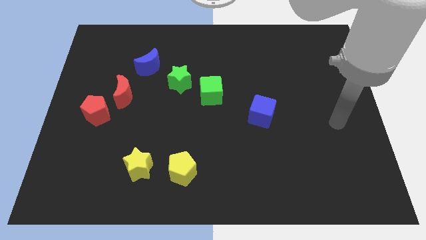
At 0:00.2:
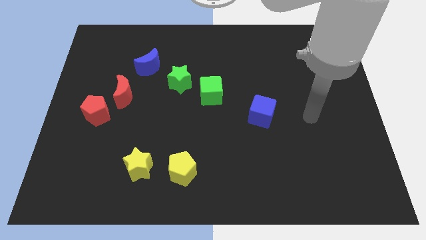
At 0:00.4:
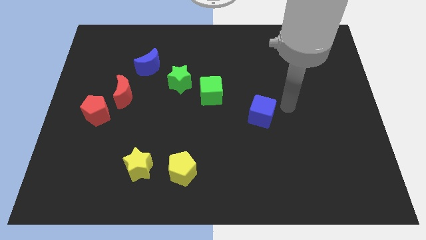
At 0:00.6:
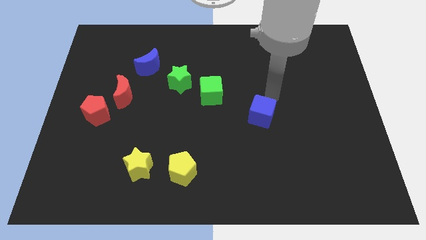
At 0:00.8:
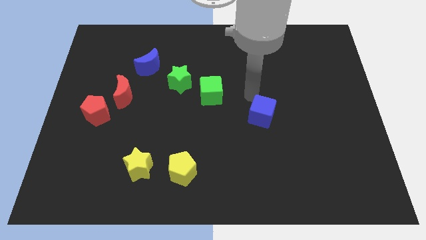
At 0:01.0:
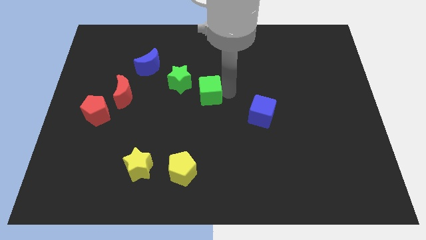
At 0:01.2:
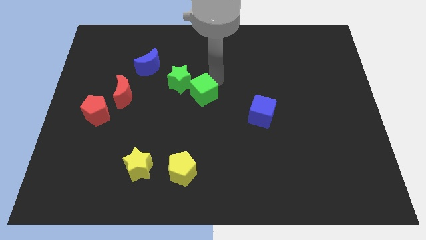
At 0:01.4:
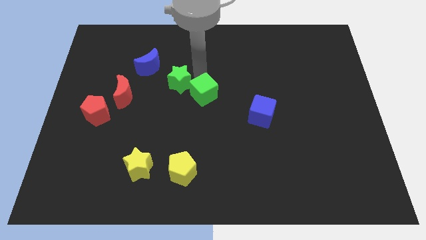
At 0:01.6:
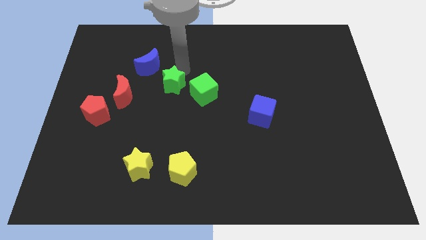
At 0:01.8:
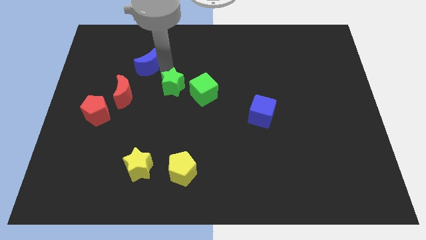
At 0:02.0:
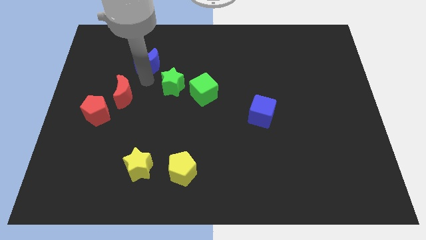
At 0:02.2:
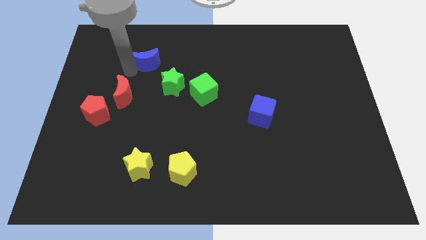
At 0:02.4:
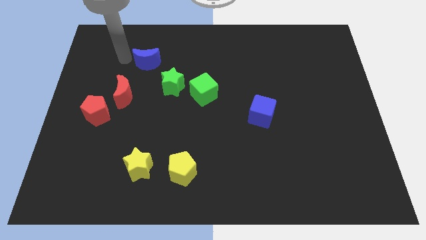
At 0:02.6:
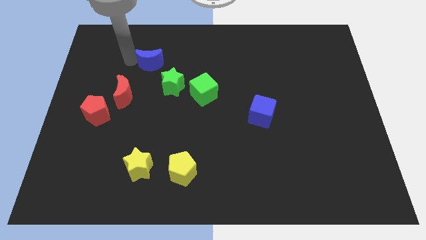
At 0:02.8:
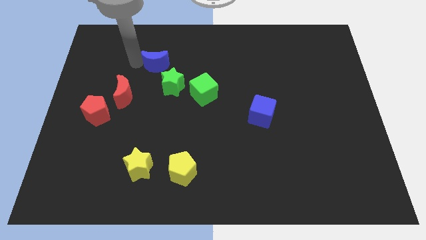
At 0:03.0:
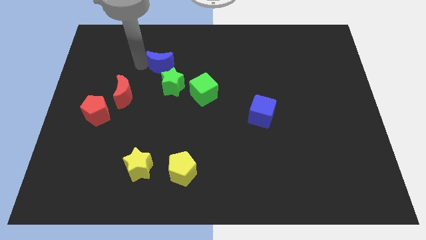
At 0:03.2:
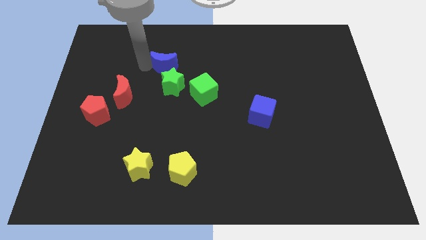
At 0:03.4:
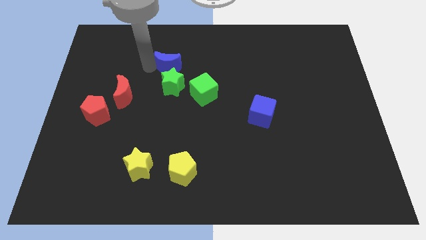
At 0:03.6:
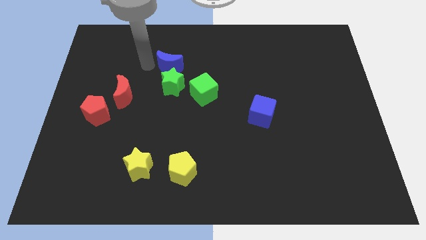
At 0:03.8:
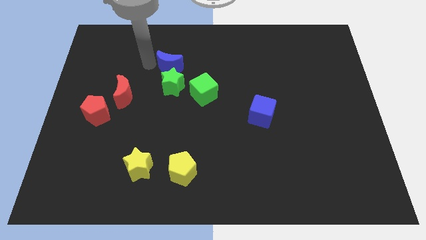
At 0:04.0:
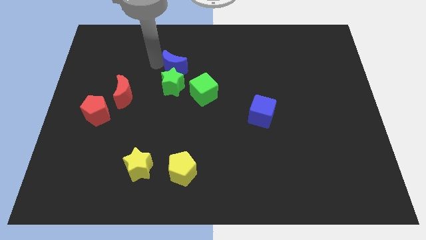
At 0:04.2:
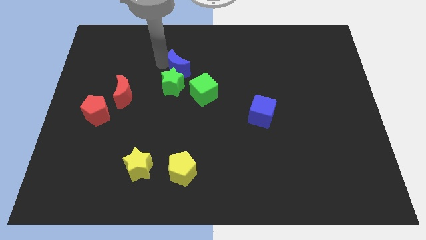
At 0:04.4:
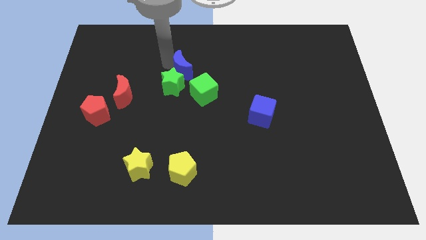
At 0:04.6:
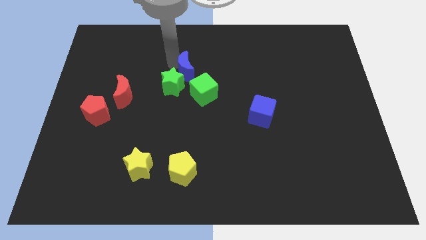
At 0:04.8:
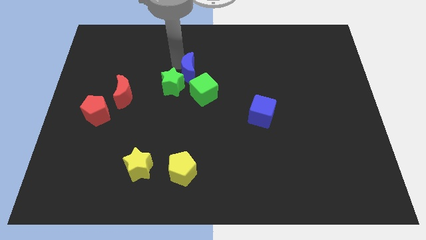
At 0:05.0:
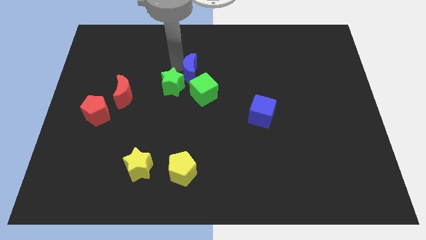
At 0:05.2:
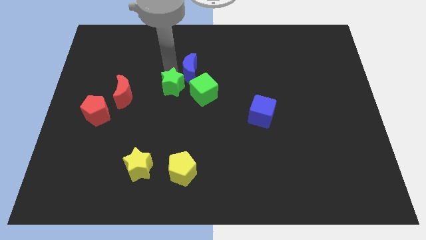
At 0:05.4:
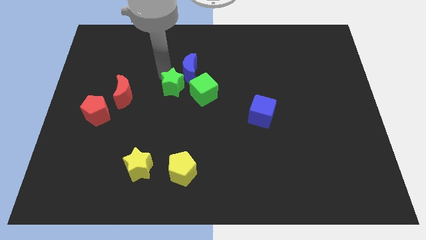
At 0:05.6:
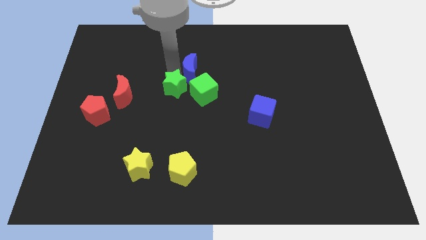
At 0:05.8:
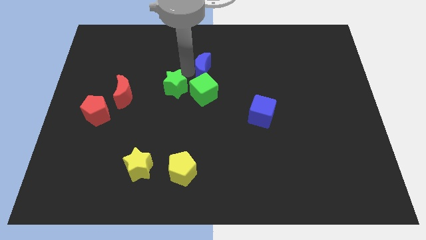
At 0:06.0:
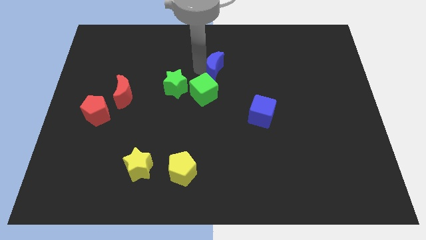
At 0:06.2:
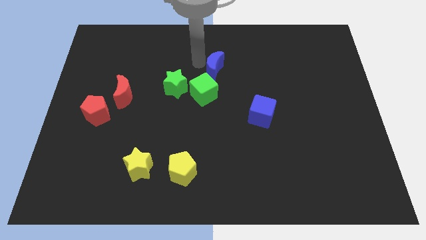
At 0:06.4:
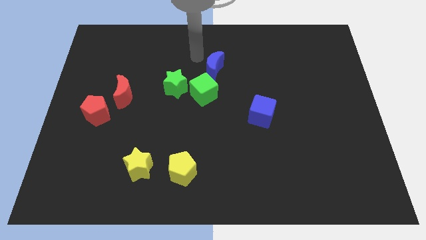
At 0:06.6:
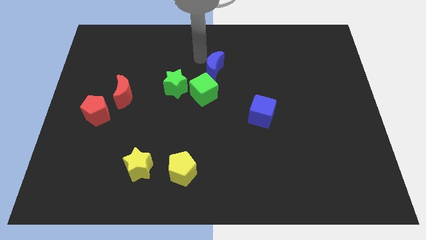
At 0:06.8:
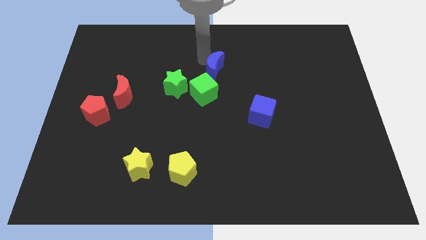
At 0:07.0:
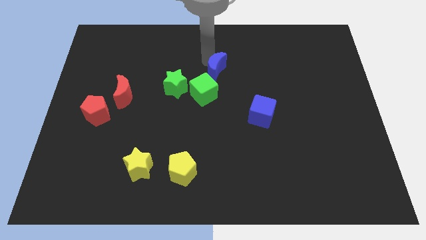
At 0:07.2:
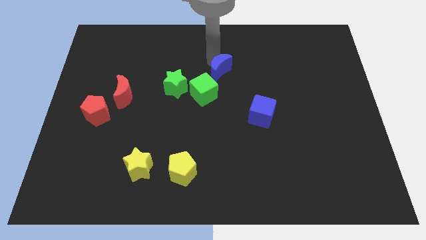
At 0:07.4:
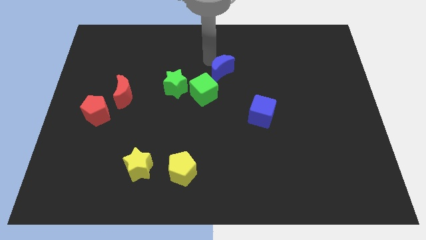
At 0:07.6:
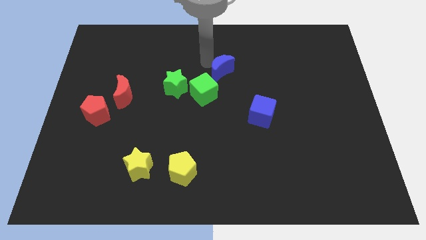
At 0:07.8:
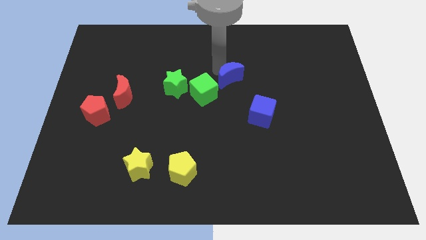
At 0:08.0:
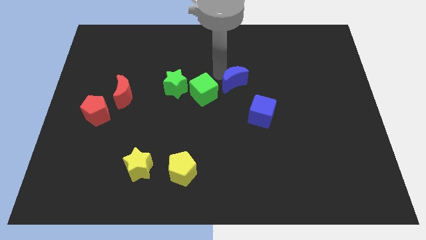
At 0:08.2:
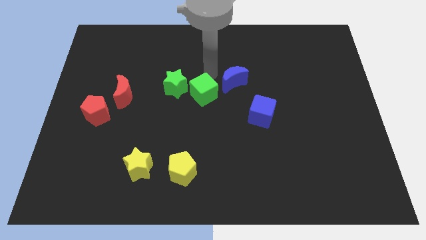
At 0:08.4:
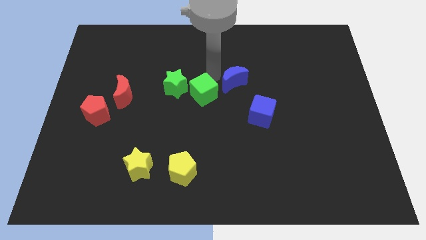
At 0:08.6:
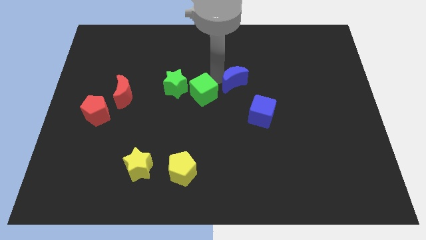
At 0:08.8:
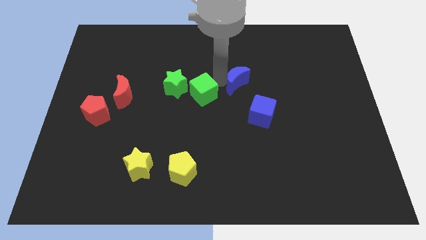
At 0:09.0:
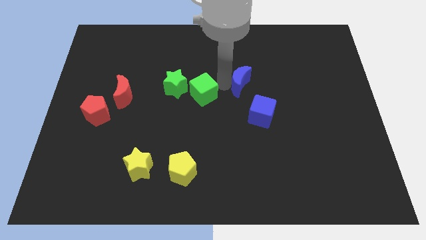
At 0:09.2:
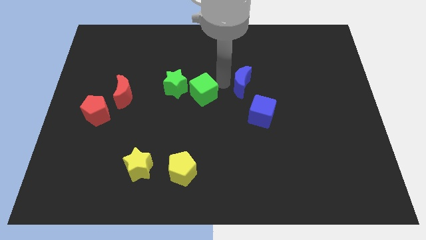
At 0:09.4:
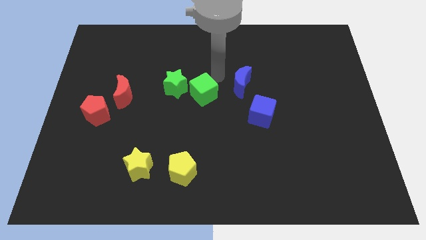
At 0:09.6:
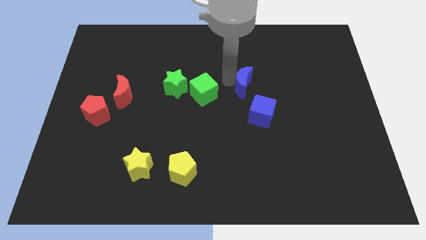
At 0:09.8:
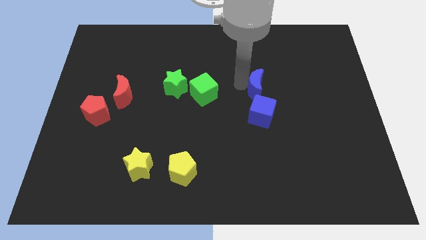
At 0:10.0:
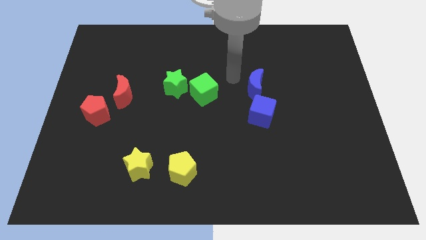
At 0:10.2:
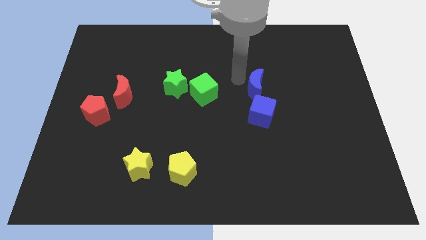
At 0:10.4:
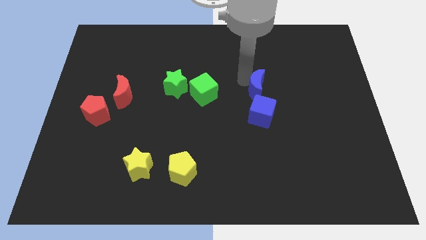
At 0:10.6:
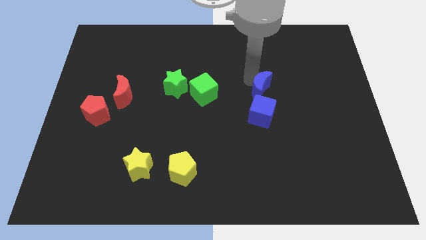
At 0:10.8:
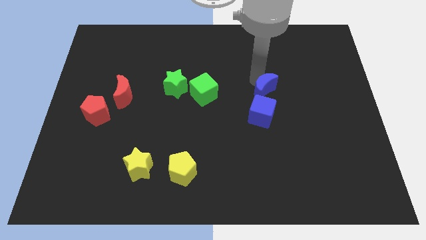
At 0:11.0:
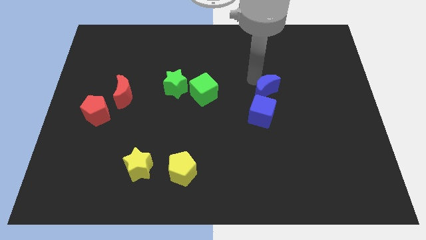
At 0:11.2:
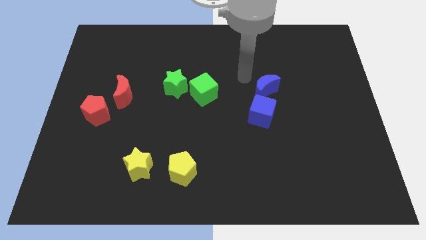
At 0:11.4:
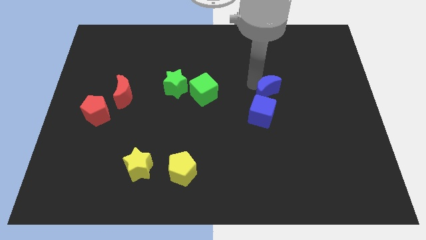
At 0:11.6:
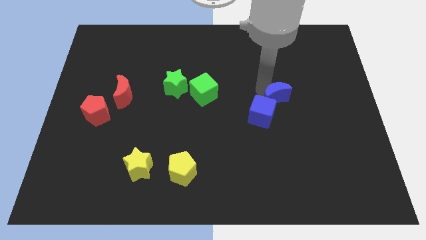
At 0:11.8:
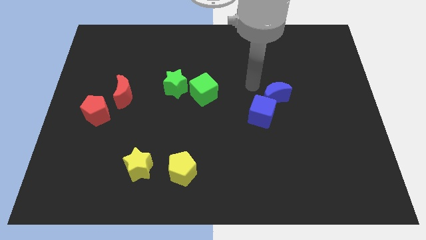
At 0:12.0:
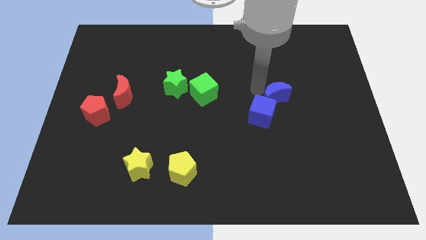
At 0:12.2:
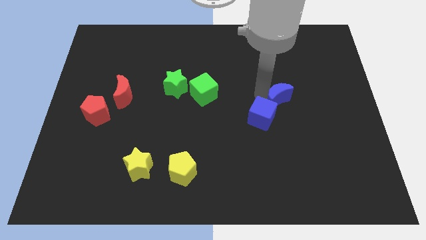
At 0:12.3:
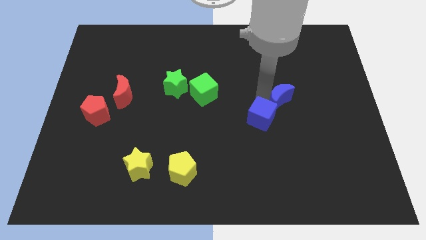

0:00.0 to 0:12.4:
slide the blue moon right of the blue cube

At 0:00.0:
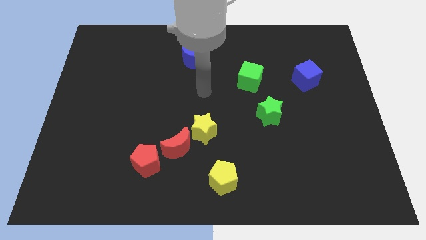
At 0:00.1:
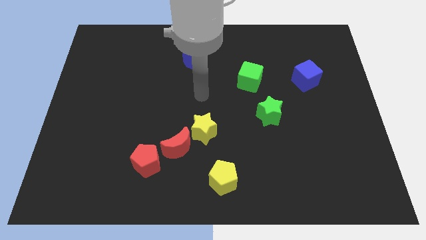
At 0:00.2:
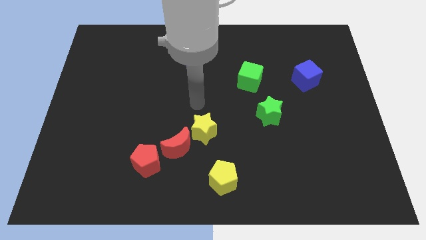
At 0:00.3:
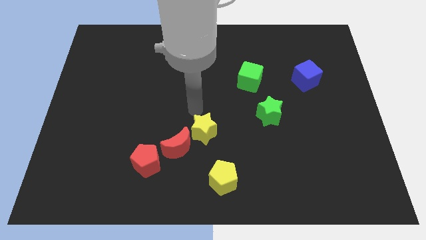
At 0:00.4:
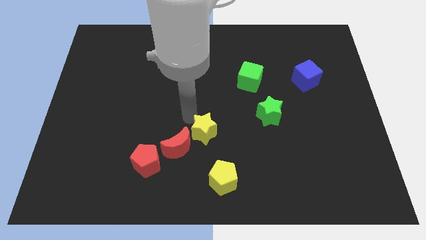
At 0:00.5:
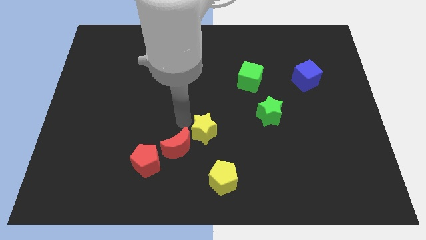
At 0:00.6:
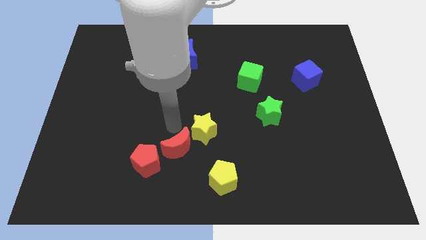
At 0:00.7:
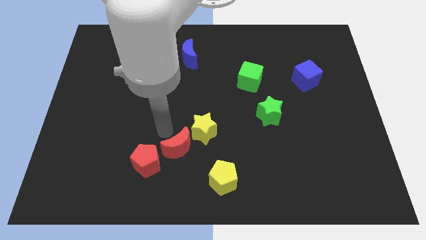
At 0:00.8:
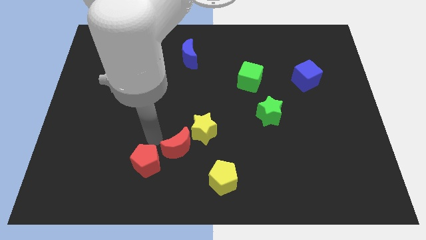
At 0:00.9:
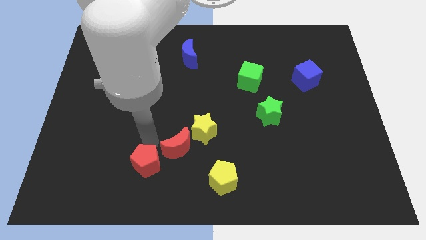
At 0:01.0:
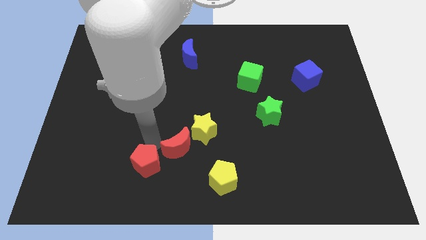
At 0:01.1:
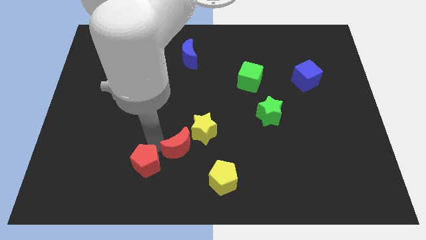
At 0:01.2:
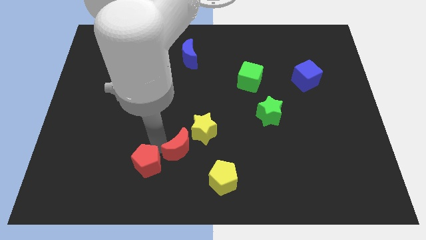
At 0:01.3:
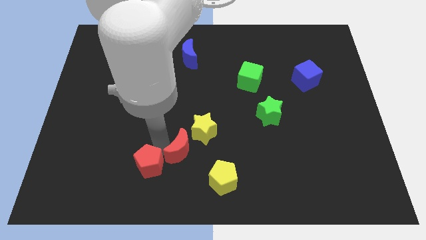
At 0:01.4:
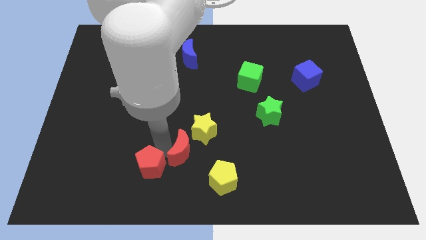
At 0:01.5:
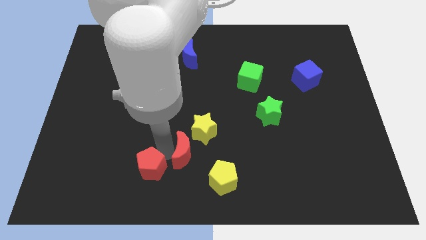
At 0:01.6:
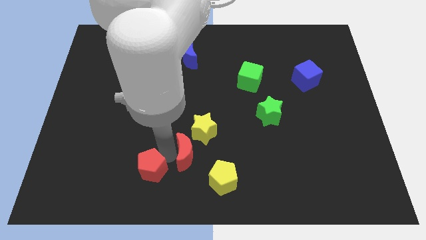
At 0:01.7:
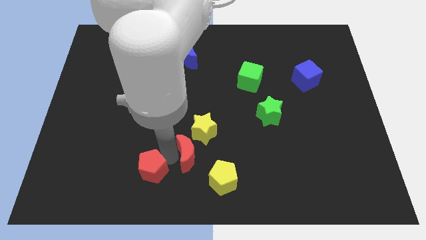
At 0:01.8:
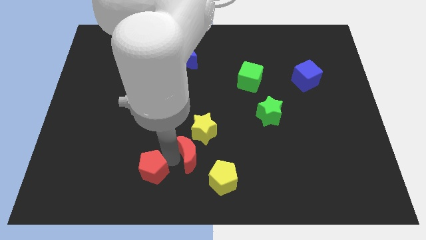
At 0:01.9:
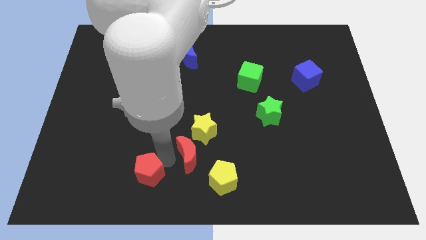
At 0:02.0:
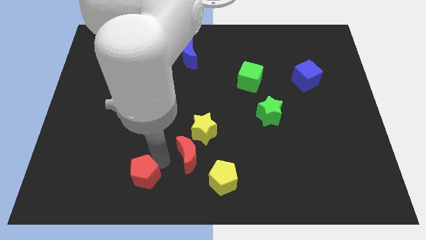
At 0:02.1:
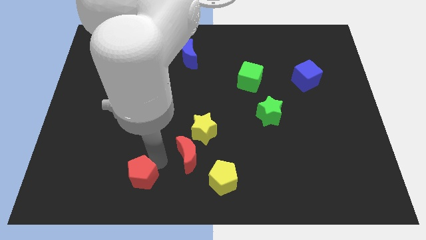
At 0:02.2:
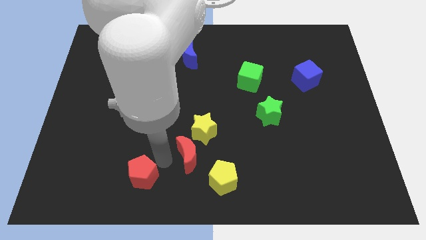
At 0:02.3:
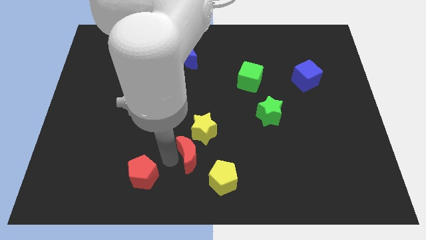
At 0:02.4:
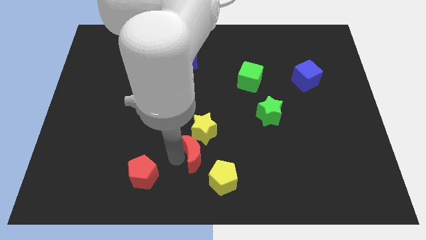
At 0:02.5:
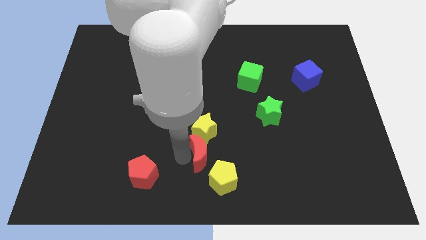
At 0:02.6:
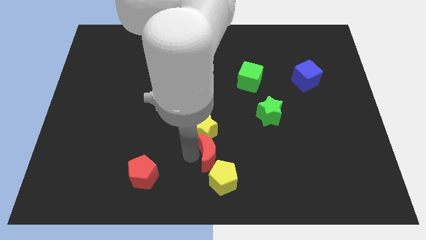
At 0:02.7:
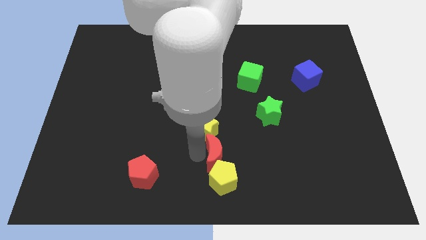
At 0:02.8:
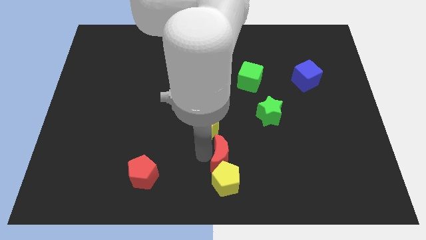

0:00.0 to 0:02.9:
push the red moon diagonally up and to the right of the yellow pentagon
